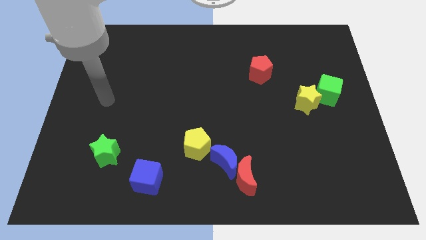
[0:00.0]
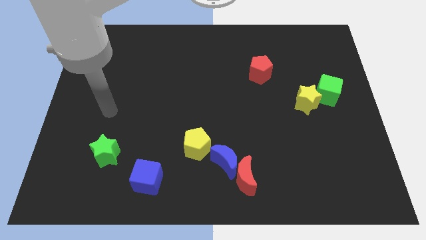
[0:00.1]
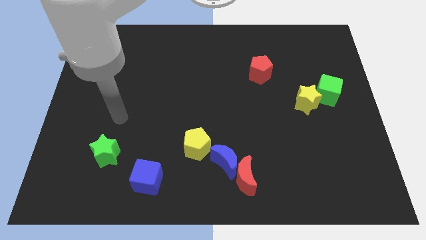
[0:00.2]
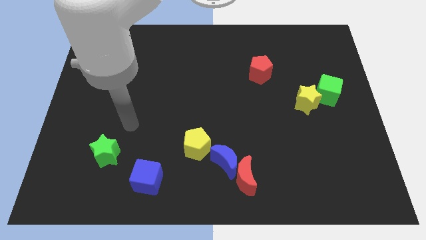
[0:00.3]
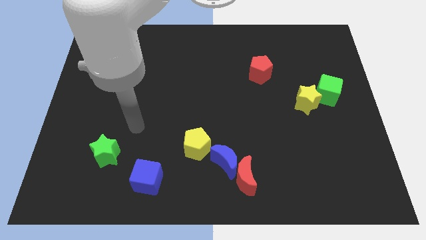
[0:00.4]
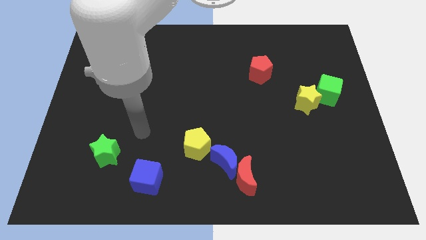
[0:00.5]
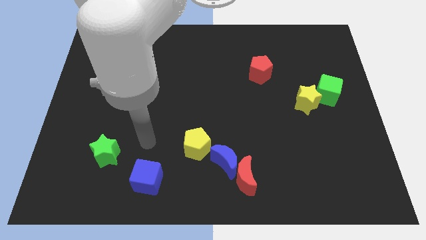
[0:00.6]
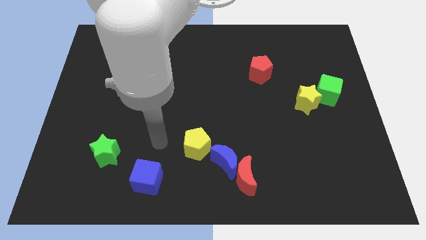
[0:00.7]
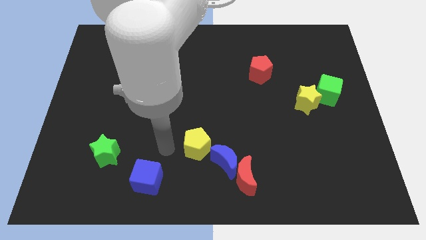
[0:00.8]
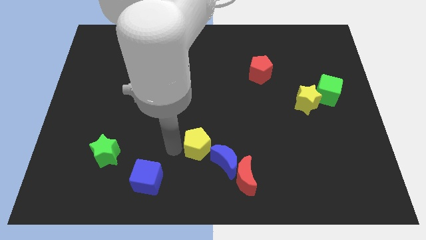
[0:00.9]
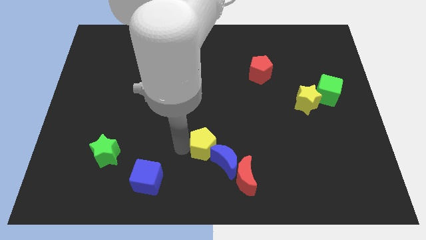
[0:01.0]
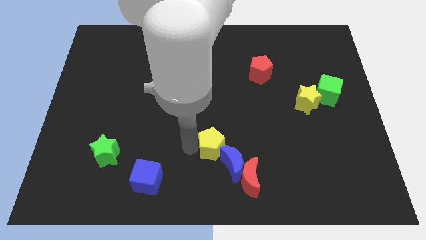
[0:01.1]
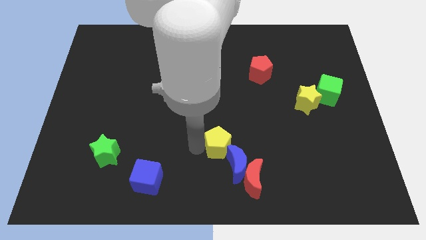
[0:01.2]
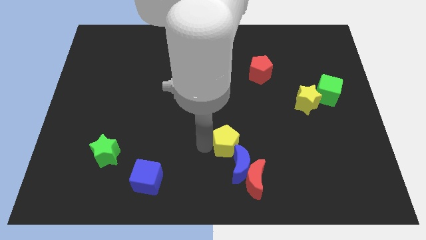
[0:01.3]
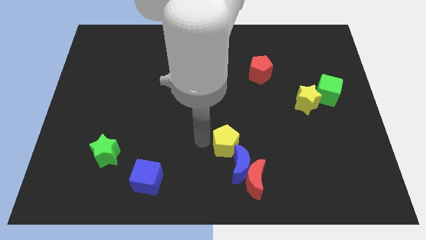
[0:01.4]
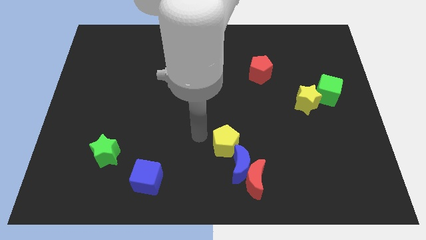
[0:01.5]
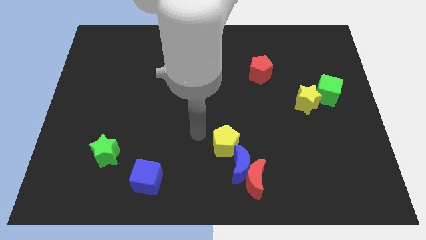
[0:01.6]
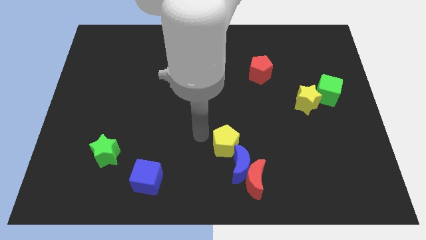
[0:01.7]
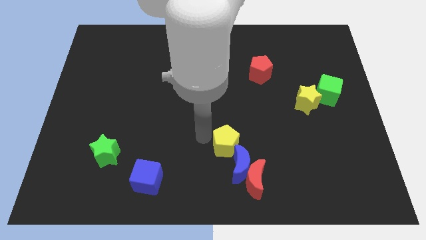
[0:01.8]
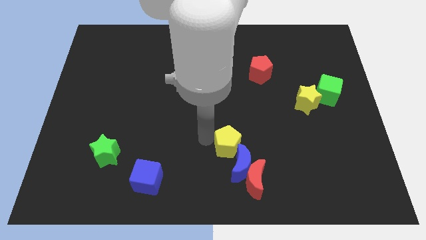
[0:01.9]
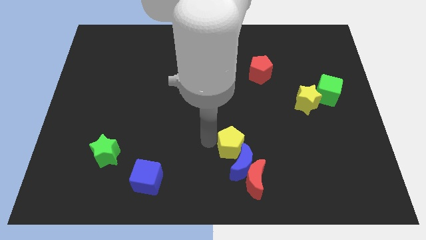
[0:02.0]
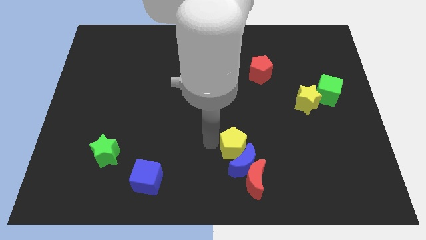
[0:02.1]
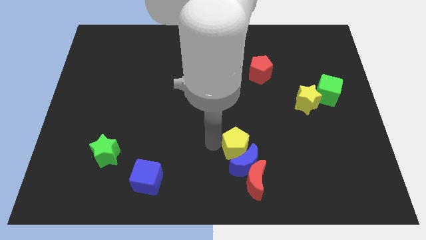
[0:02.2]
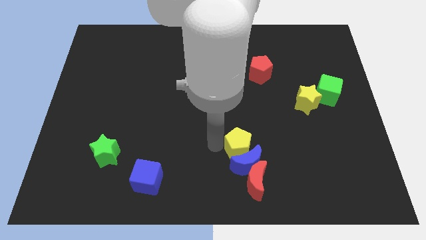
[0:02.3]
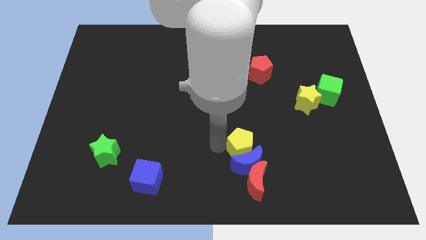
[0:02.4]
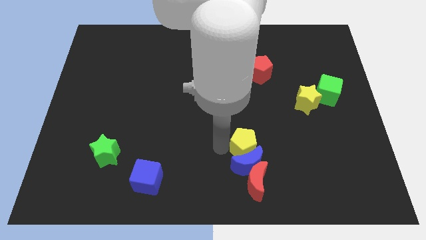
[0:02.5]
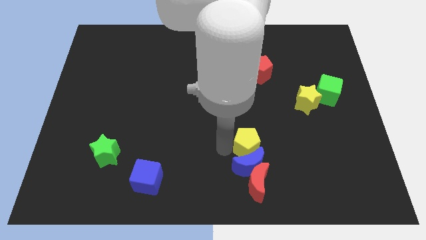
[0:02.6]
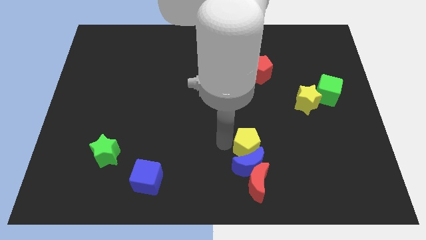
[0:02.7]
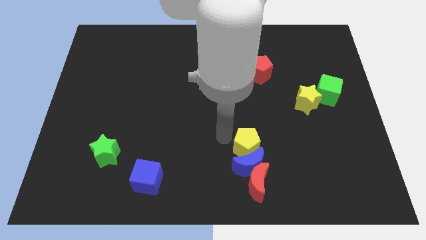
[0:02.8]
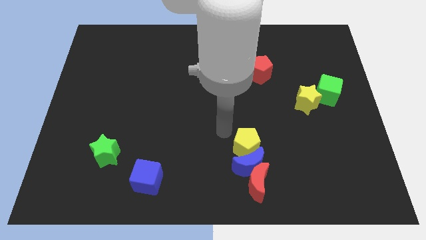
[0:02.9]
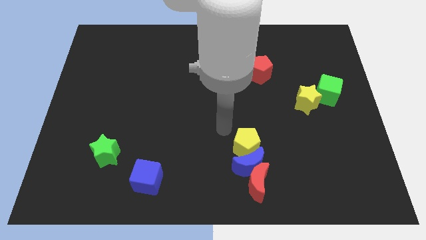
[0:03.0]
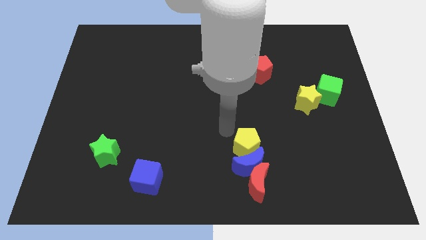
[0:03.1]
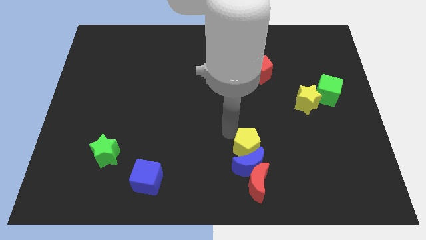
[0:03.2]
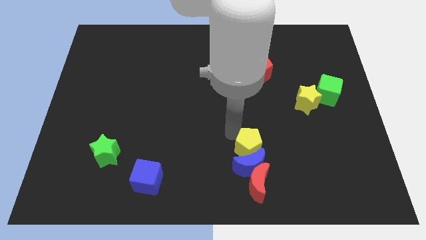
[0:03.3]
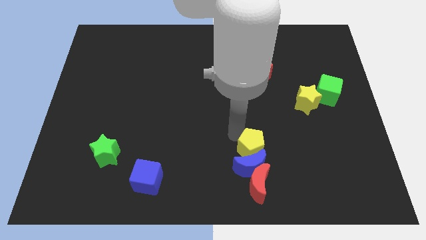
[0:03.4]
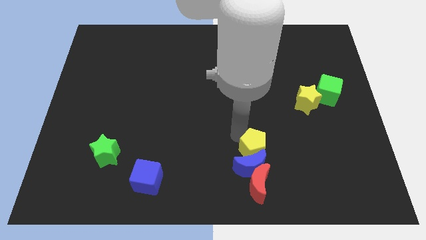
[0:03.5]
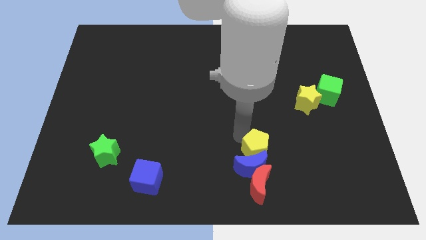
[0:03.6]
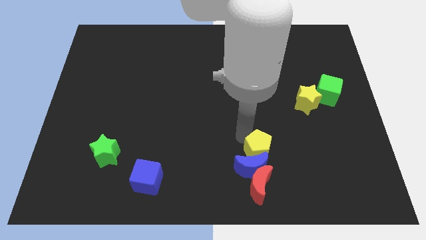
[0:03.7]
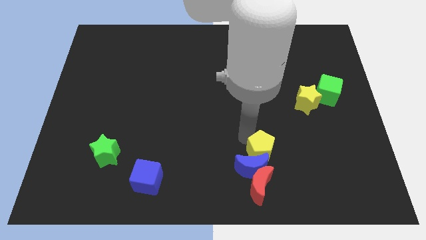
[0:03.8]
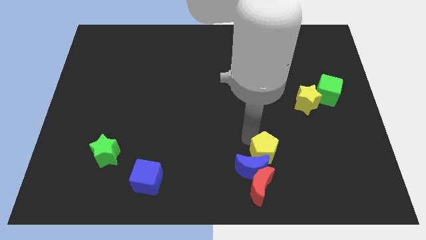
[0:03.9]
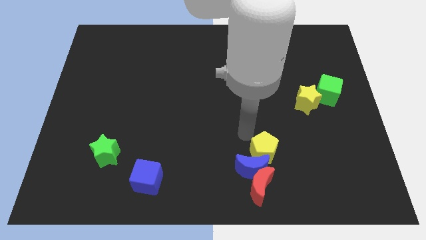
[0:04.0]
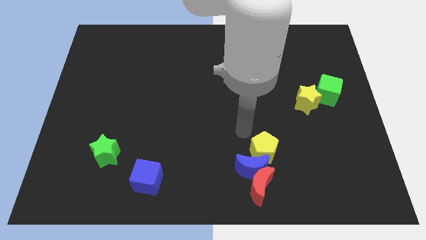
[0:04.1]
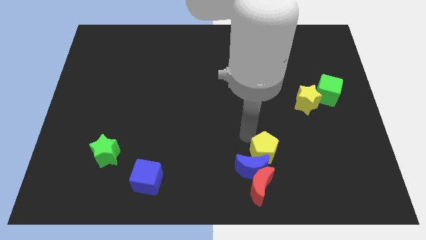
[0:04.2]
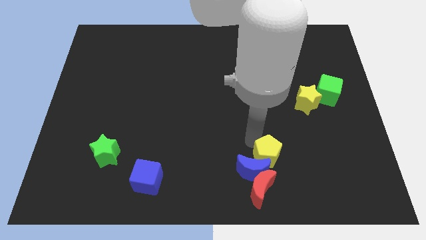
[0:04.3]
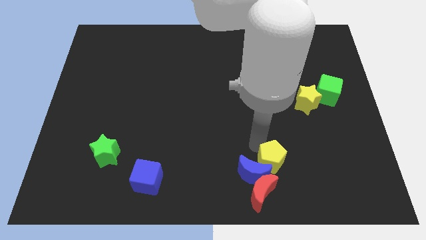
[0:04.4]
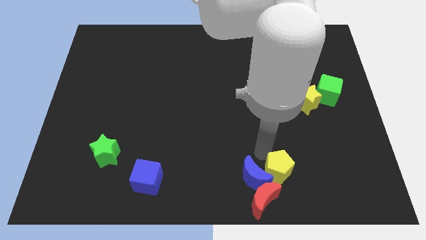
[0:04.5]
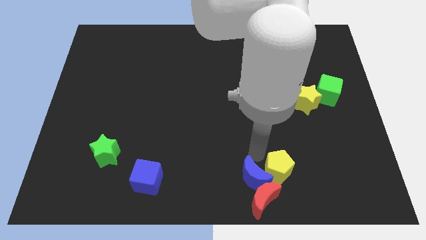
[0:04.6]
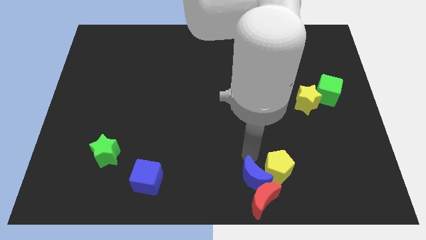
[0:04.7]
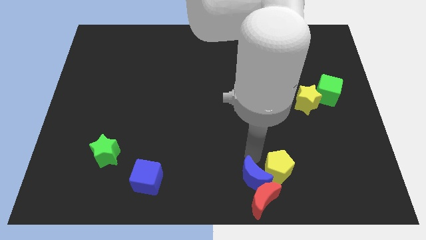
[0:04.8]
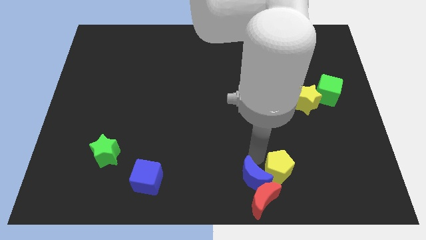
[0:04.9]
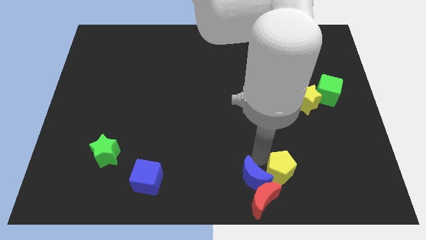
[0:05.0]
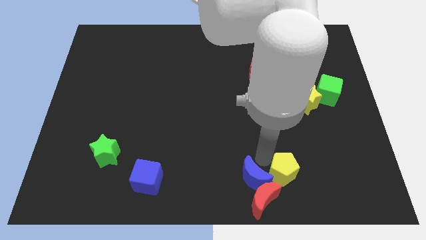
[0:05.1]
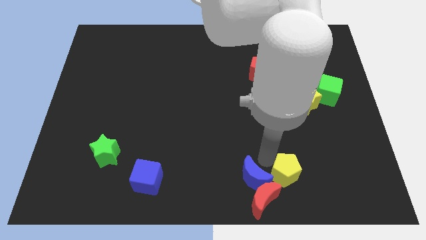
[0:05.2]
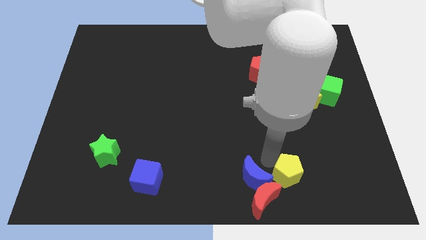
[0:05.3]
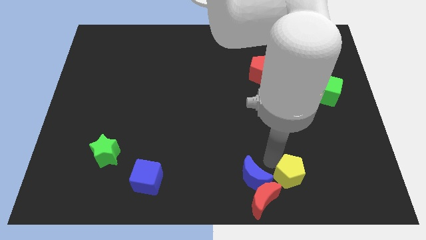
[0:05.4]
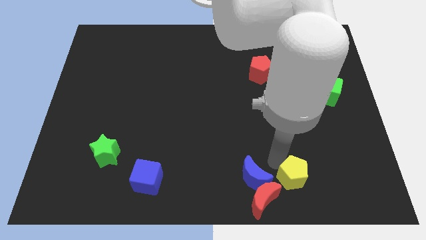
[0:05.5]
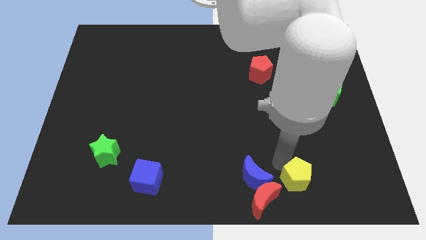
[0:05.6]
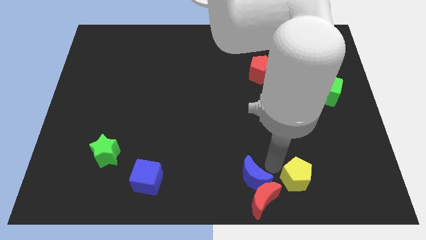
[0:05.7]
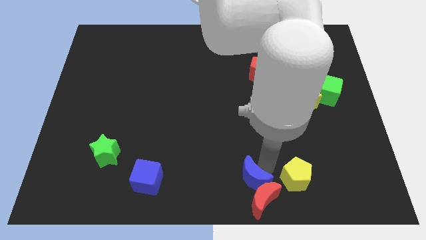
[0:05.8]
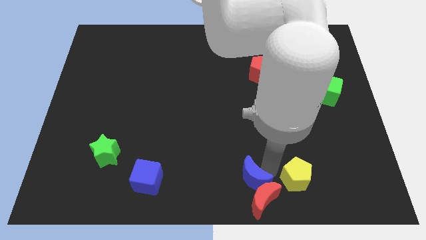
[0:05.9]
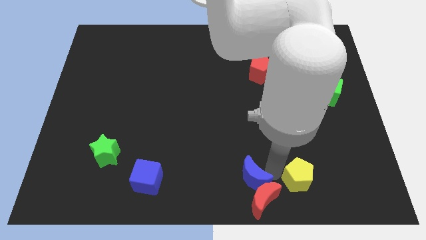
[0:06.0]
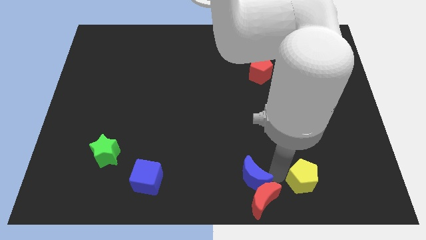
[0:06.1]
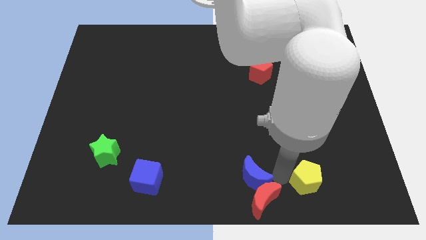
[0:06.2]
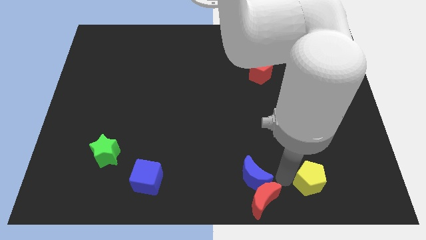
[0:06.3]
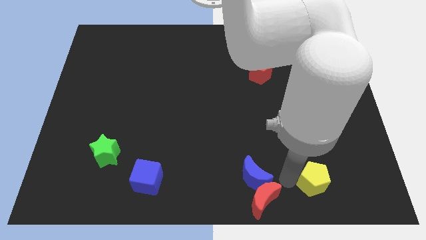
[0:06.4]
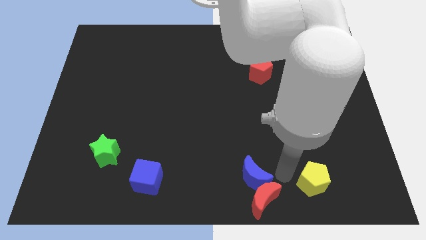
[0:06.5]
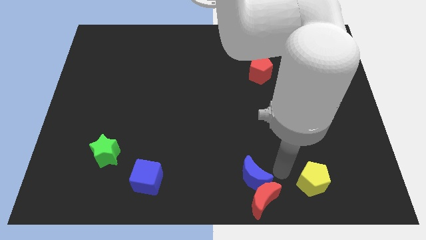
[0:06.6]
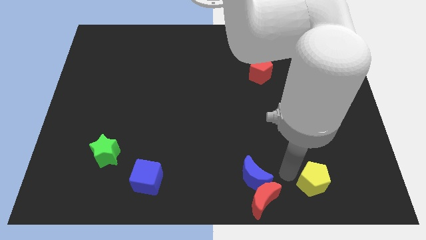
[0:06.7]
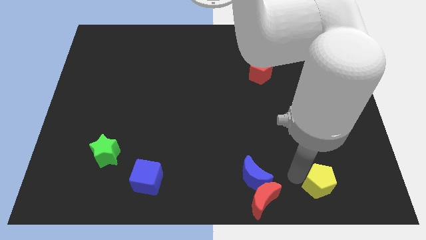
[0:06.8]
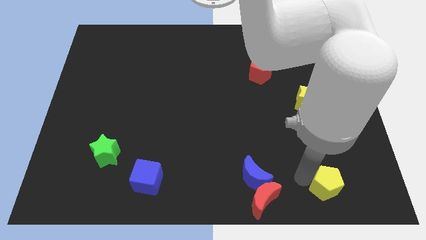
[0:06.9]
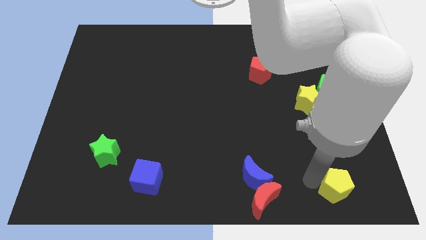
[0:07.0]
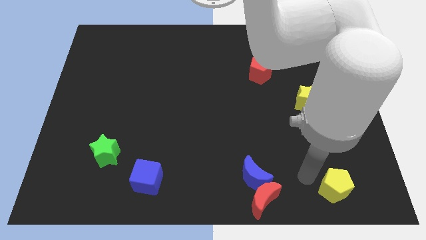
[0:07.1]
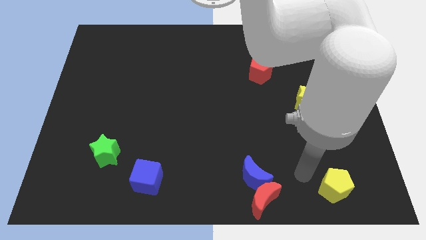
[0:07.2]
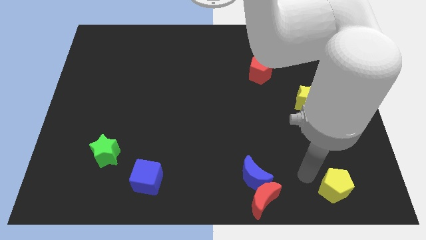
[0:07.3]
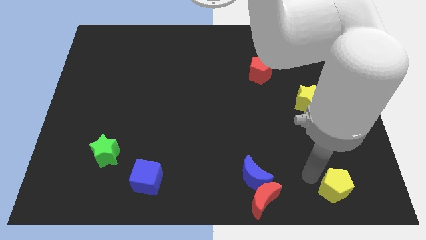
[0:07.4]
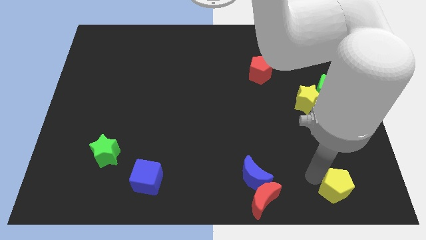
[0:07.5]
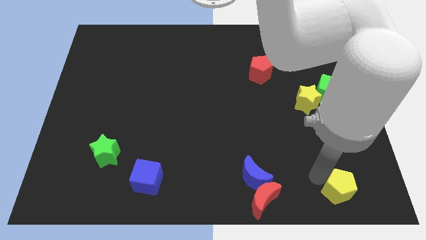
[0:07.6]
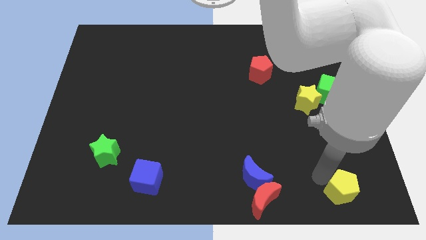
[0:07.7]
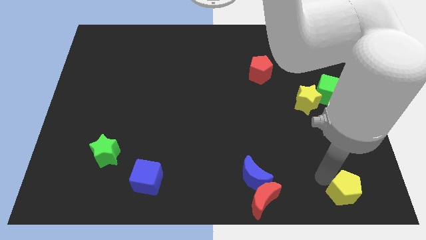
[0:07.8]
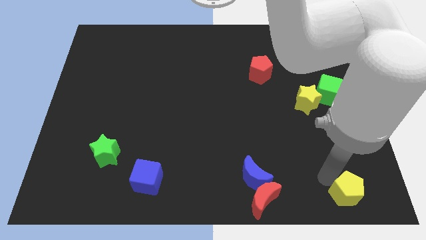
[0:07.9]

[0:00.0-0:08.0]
move the yellow pentagon to the bottom right corner
